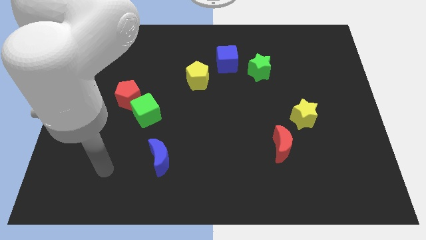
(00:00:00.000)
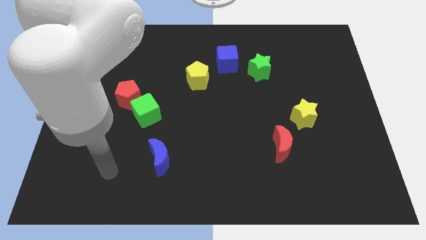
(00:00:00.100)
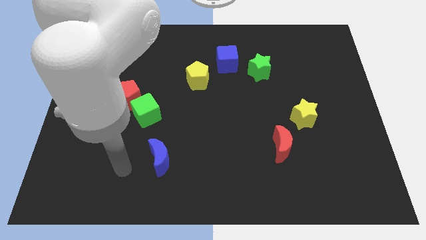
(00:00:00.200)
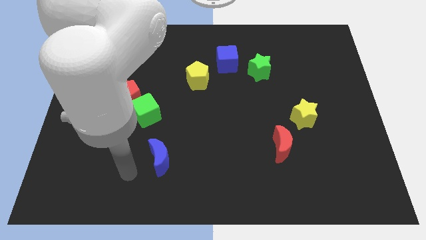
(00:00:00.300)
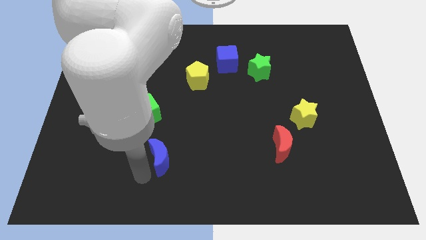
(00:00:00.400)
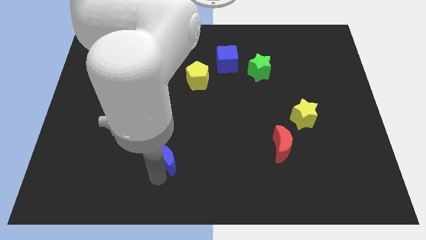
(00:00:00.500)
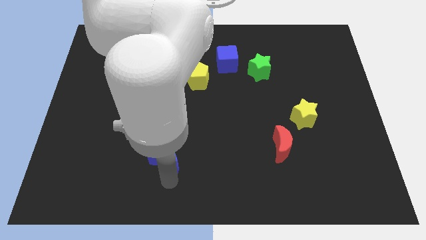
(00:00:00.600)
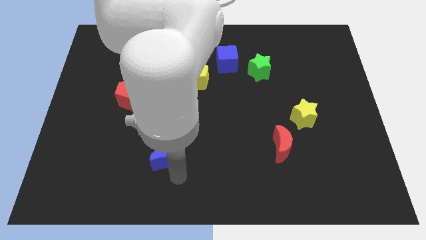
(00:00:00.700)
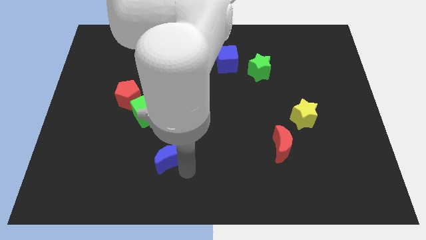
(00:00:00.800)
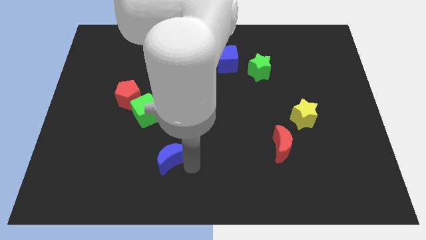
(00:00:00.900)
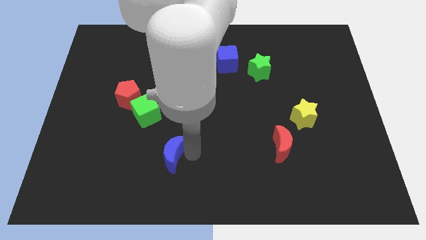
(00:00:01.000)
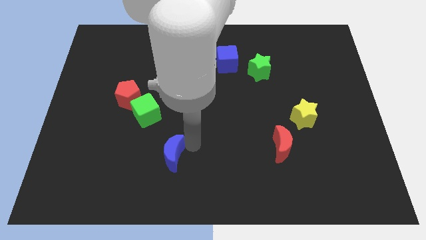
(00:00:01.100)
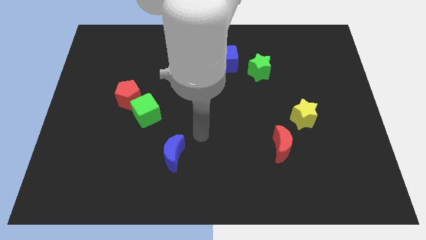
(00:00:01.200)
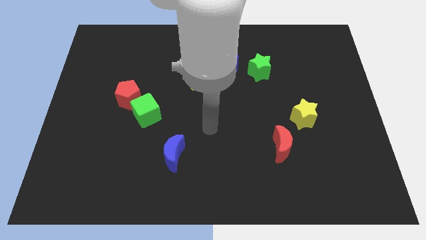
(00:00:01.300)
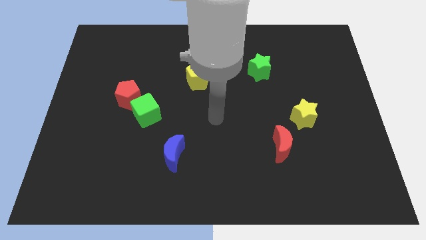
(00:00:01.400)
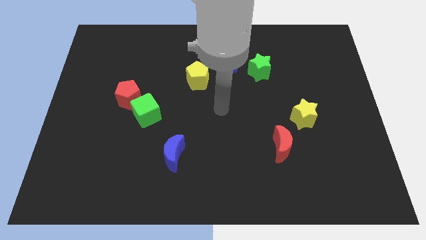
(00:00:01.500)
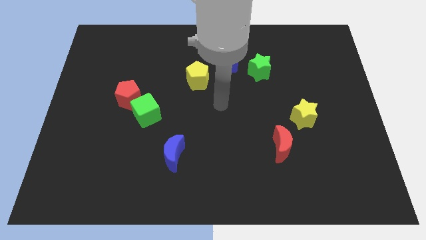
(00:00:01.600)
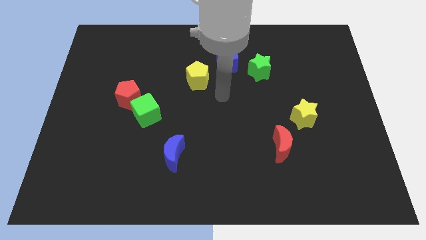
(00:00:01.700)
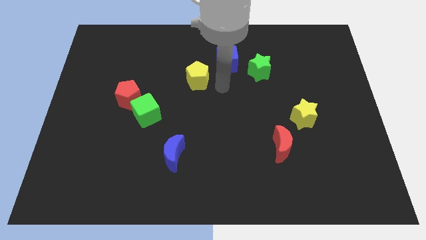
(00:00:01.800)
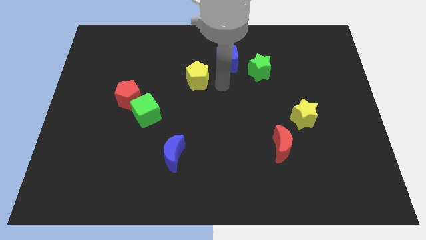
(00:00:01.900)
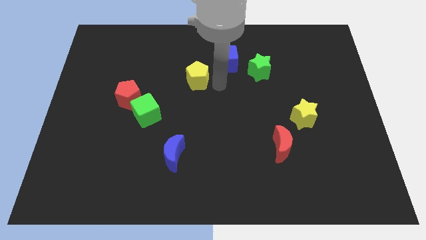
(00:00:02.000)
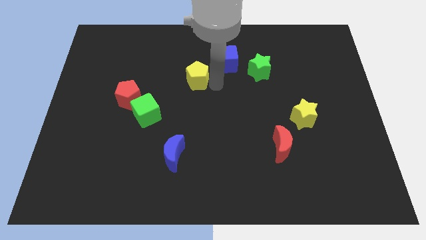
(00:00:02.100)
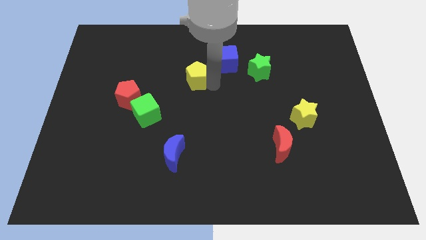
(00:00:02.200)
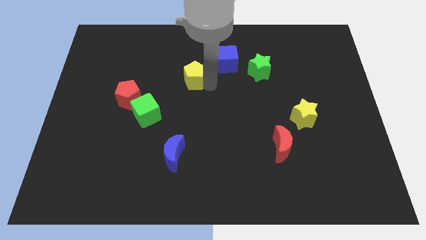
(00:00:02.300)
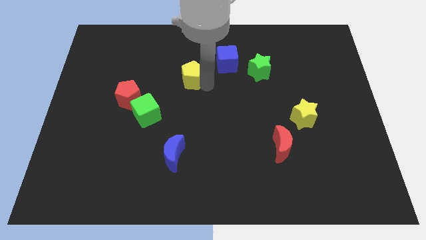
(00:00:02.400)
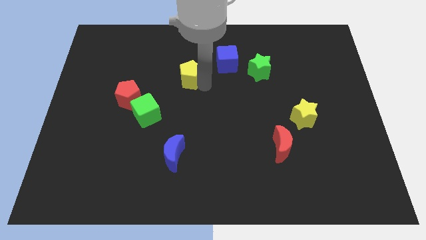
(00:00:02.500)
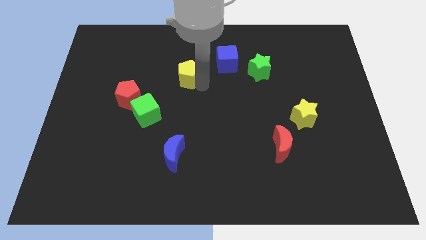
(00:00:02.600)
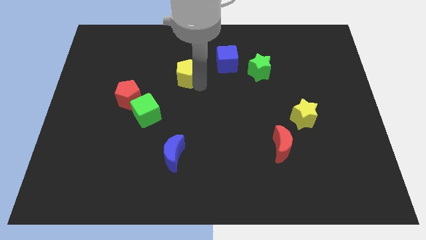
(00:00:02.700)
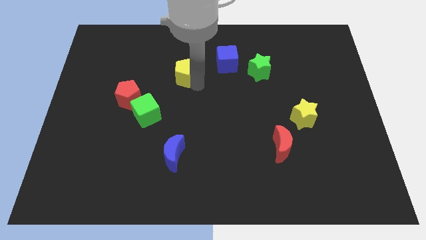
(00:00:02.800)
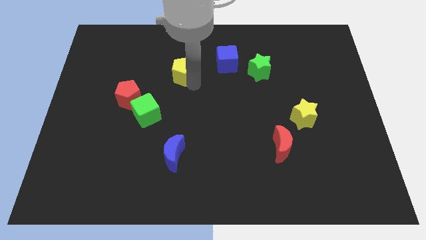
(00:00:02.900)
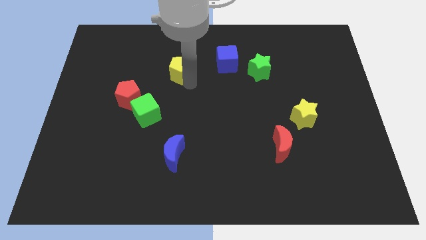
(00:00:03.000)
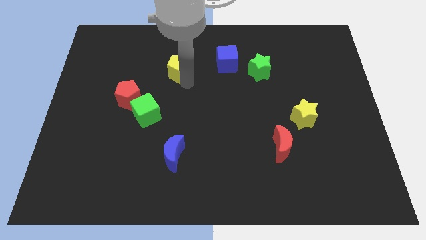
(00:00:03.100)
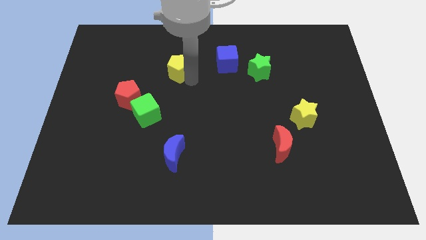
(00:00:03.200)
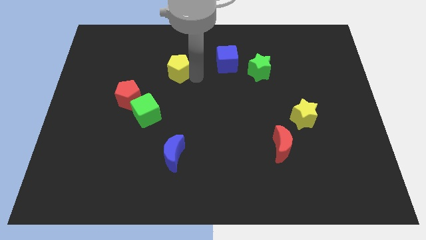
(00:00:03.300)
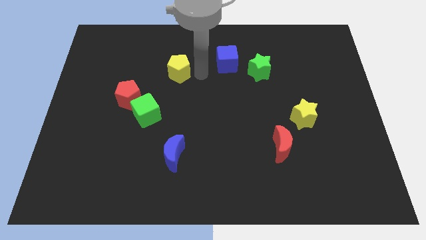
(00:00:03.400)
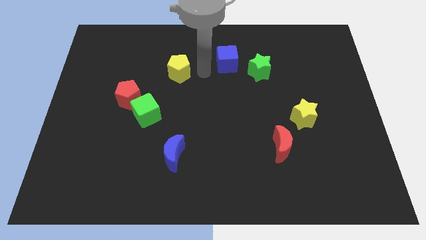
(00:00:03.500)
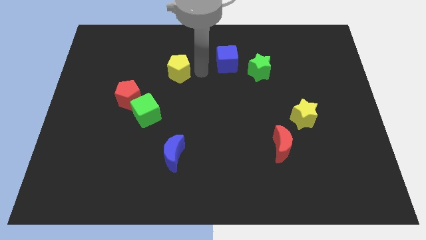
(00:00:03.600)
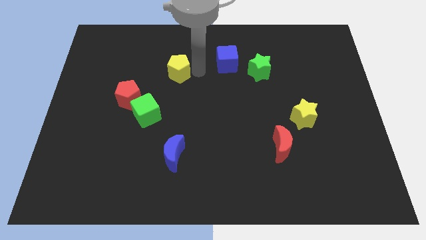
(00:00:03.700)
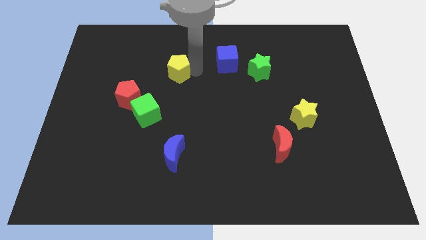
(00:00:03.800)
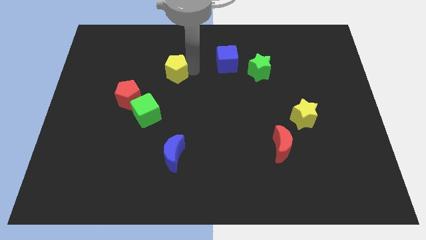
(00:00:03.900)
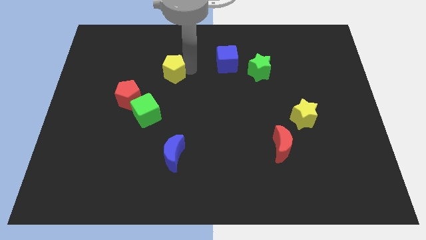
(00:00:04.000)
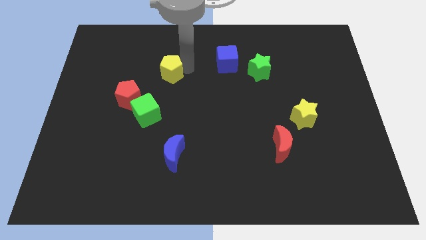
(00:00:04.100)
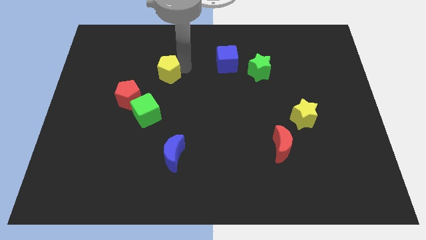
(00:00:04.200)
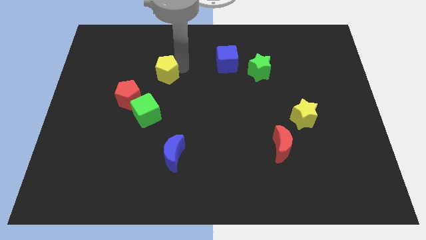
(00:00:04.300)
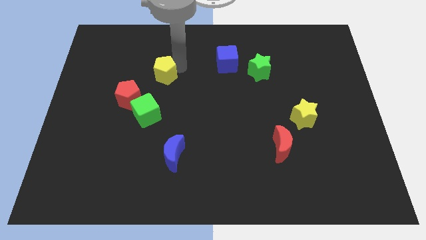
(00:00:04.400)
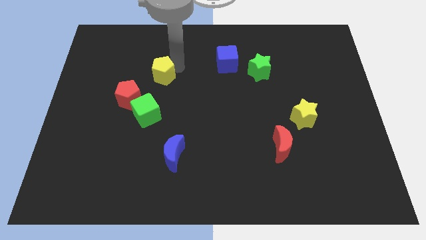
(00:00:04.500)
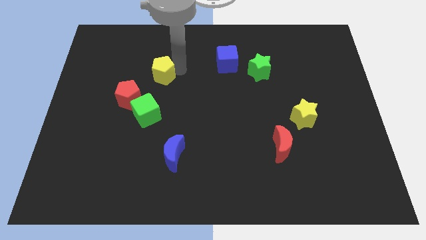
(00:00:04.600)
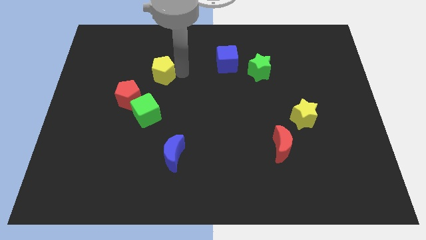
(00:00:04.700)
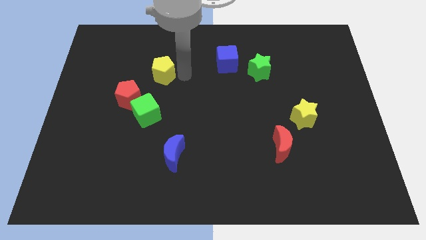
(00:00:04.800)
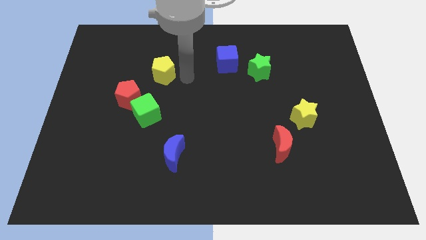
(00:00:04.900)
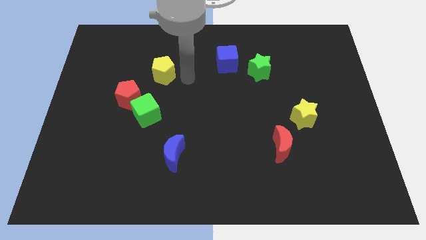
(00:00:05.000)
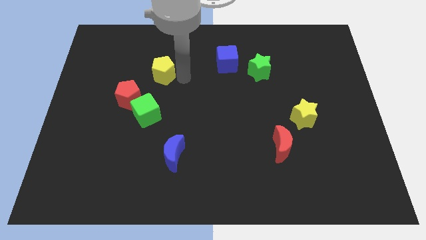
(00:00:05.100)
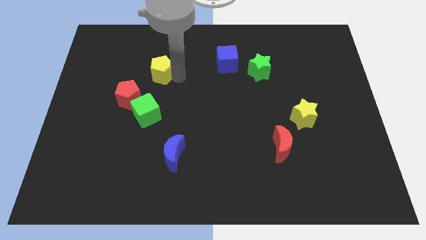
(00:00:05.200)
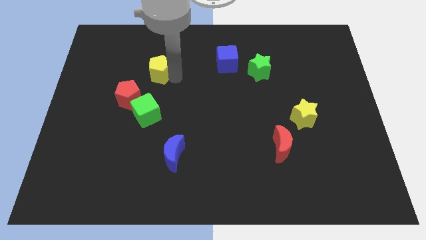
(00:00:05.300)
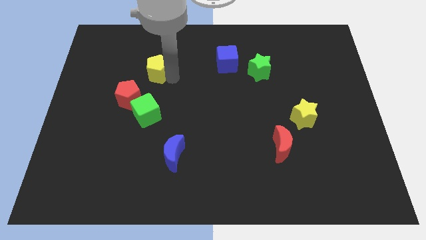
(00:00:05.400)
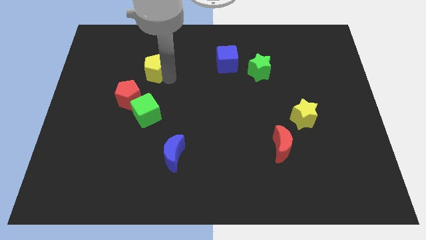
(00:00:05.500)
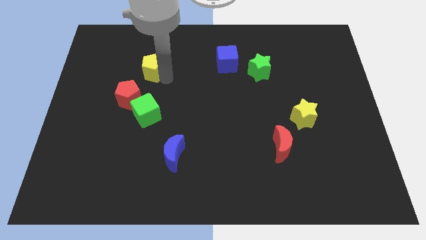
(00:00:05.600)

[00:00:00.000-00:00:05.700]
put the yellow pentagon to the top side of the red pentagon

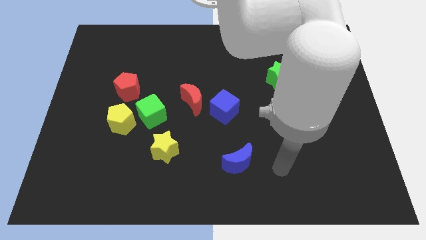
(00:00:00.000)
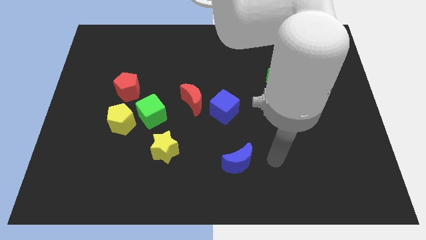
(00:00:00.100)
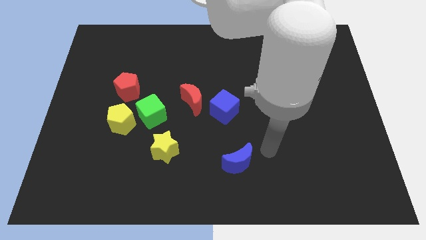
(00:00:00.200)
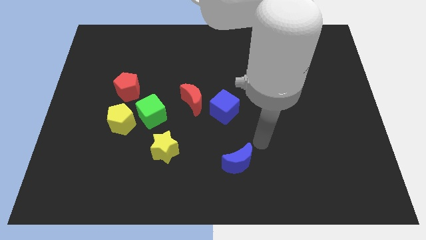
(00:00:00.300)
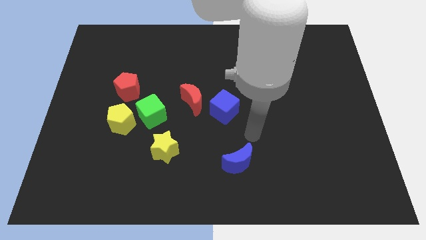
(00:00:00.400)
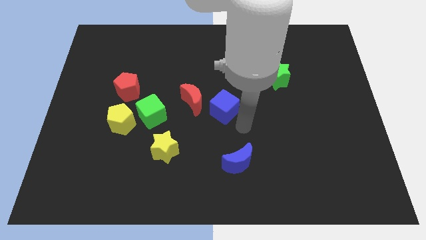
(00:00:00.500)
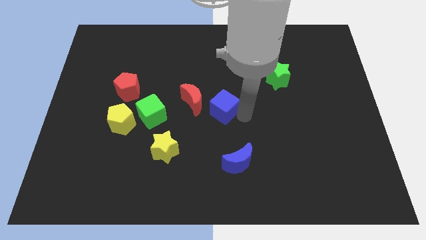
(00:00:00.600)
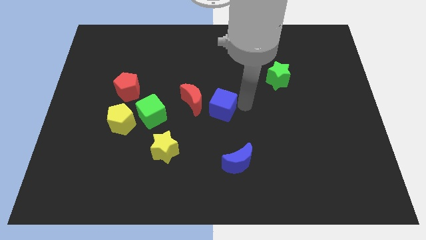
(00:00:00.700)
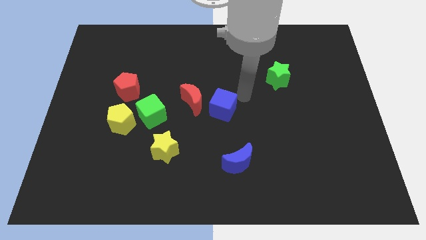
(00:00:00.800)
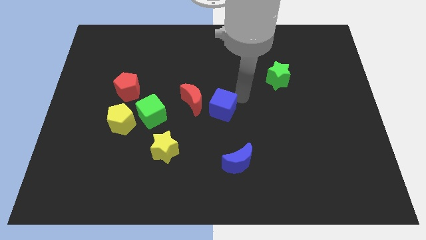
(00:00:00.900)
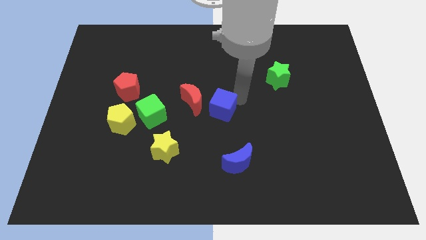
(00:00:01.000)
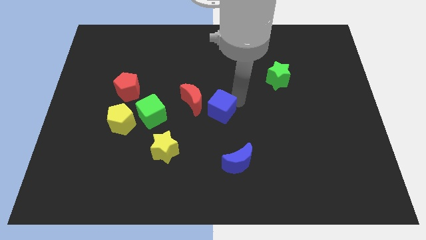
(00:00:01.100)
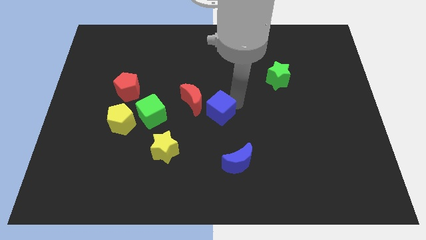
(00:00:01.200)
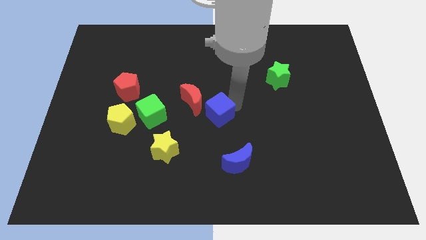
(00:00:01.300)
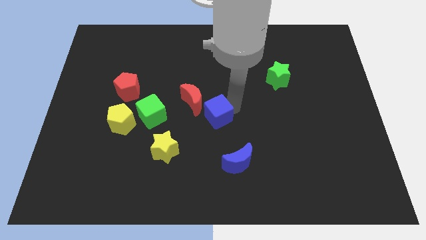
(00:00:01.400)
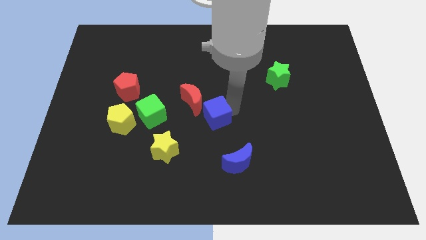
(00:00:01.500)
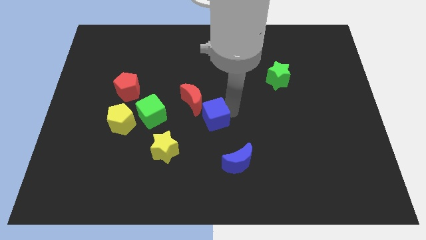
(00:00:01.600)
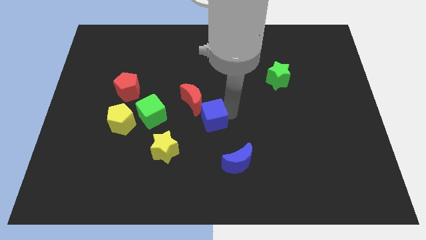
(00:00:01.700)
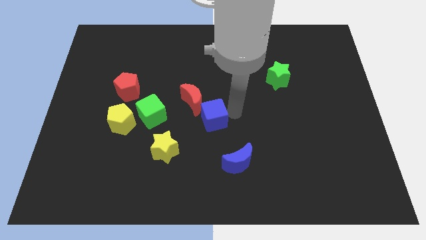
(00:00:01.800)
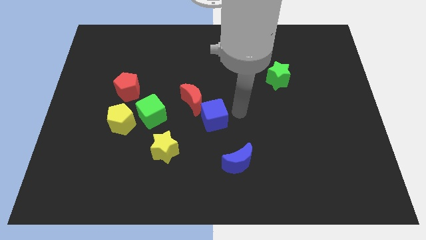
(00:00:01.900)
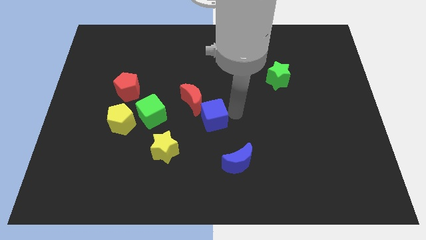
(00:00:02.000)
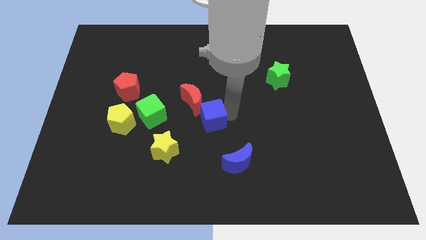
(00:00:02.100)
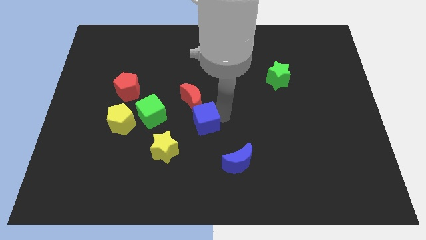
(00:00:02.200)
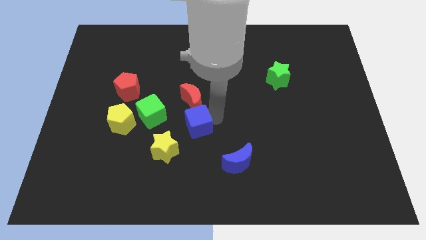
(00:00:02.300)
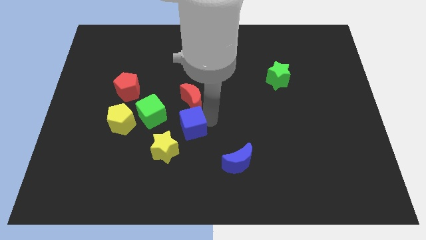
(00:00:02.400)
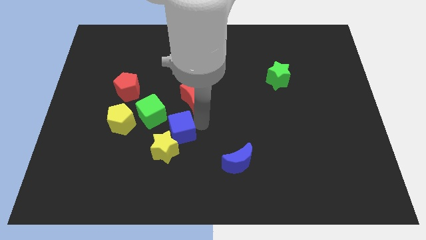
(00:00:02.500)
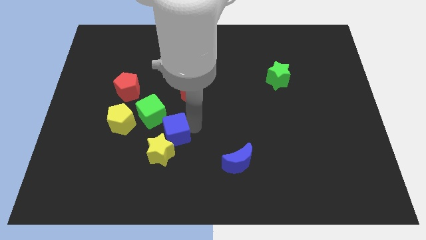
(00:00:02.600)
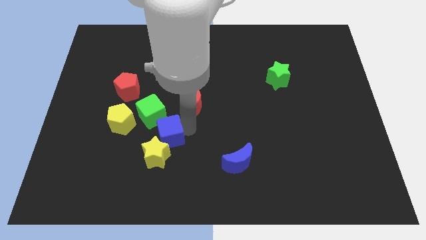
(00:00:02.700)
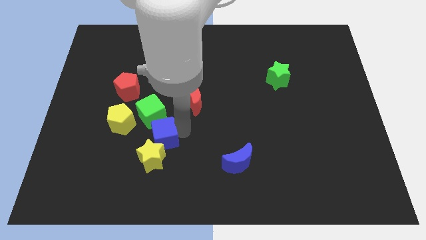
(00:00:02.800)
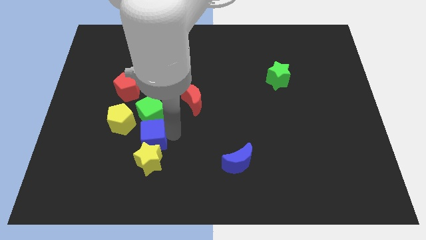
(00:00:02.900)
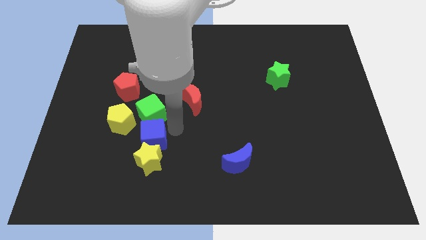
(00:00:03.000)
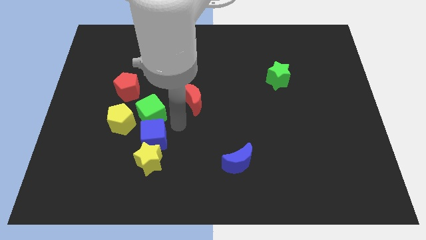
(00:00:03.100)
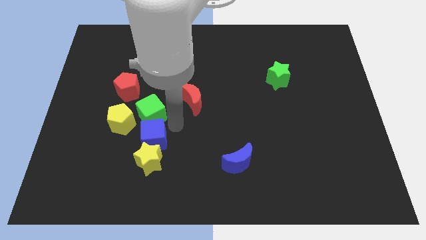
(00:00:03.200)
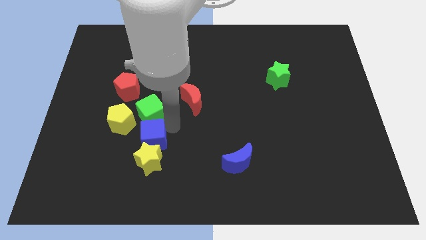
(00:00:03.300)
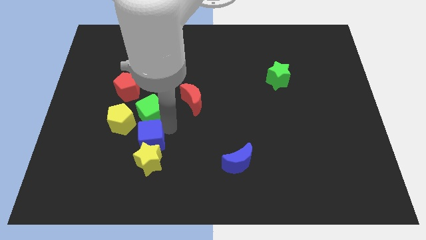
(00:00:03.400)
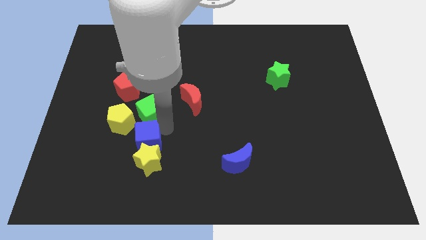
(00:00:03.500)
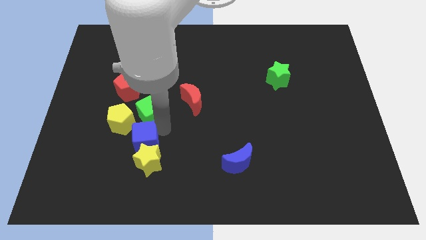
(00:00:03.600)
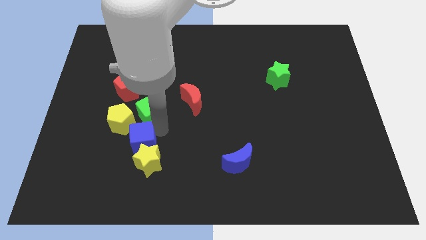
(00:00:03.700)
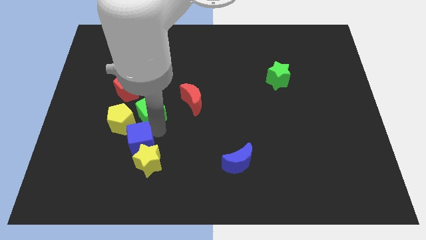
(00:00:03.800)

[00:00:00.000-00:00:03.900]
push the blue cube to the bottom side of the yellow pentagon
